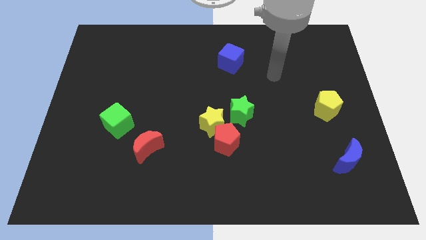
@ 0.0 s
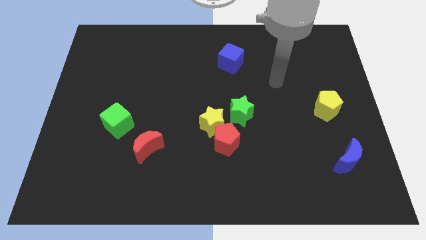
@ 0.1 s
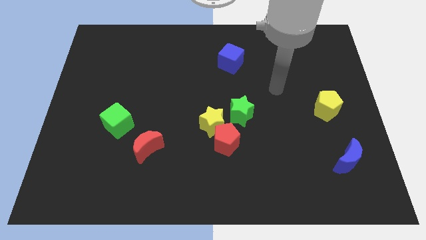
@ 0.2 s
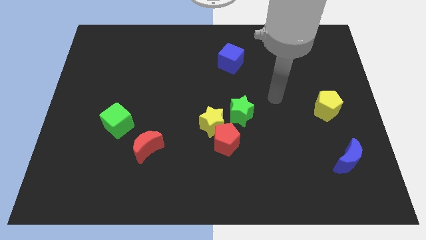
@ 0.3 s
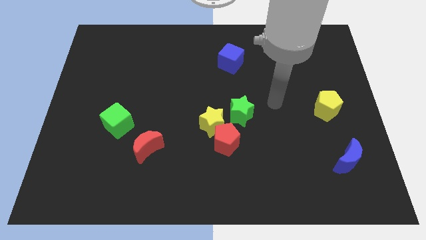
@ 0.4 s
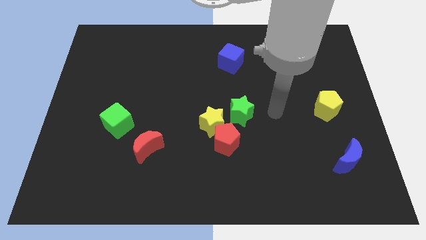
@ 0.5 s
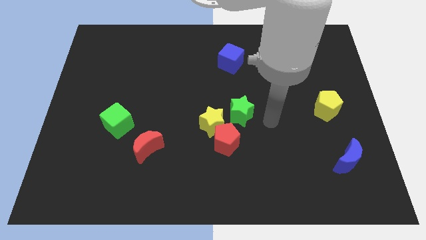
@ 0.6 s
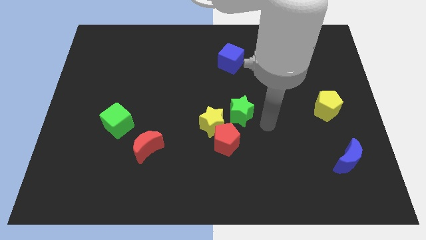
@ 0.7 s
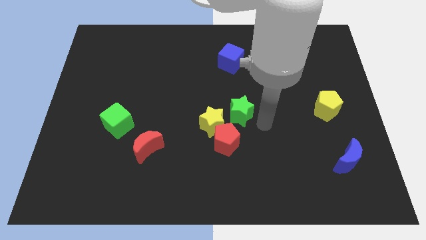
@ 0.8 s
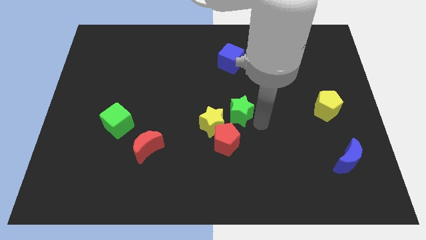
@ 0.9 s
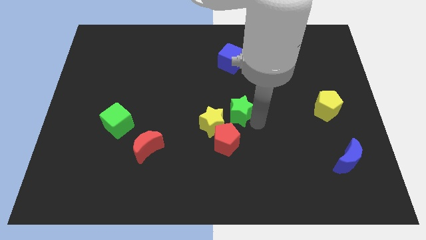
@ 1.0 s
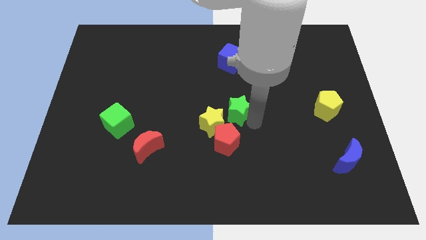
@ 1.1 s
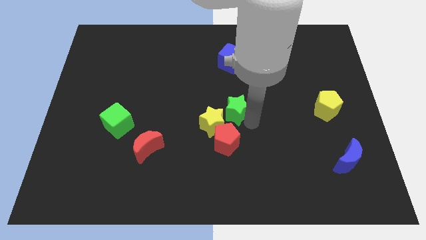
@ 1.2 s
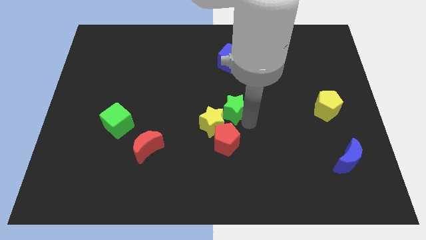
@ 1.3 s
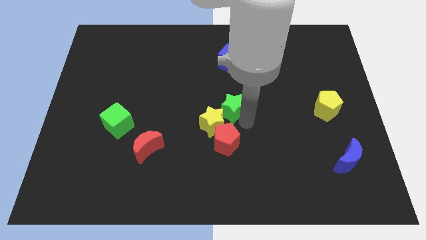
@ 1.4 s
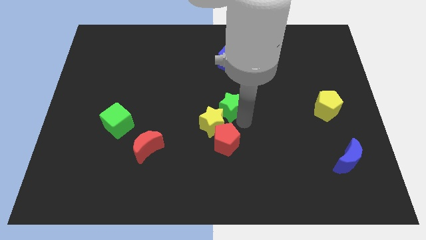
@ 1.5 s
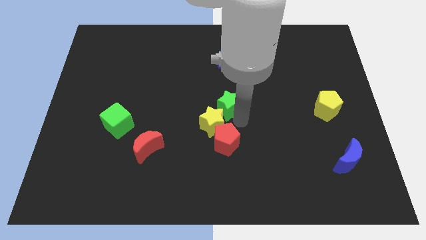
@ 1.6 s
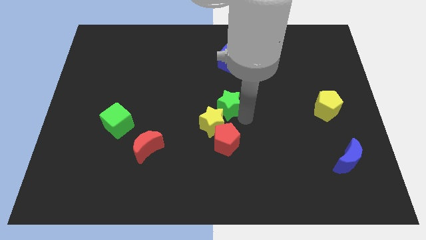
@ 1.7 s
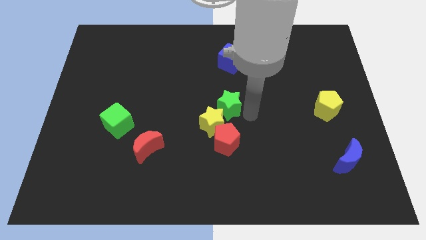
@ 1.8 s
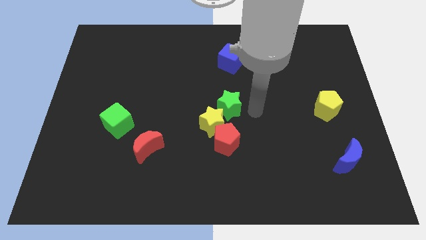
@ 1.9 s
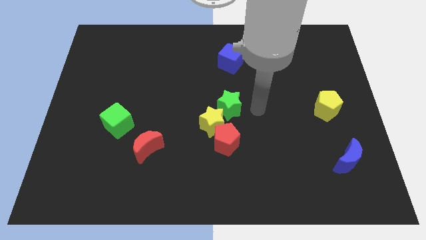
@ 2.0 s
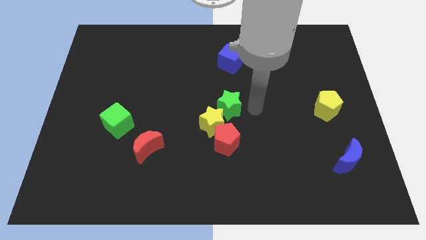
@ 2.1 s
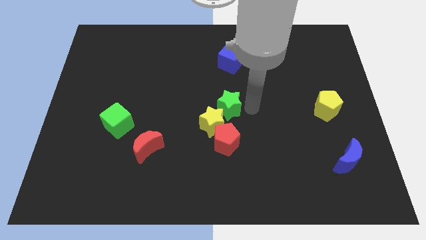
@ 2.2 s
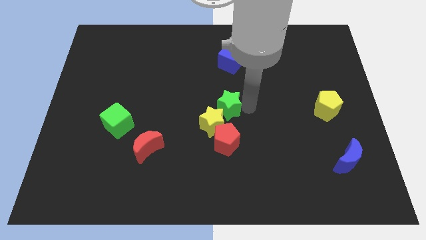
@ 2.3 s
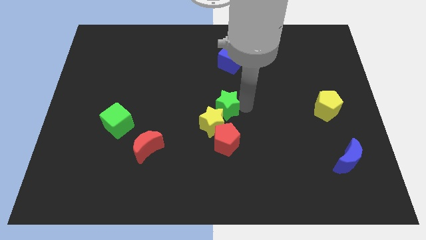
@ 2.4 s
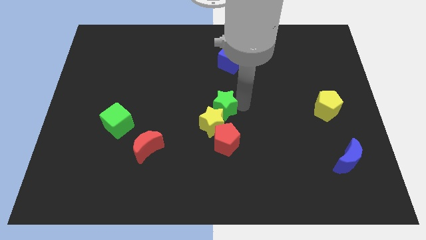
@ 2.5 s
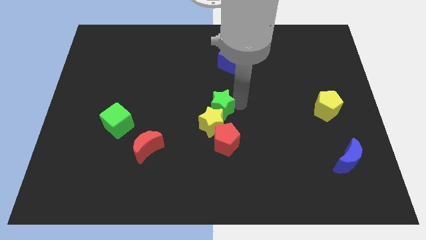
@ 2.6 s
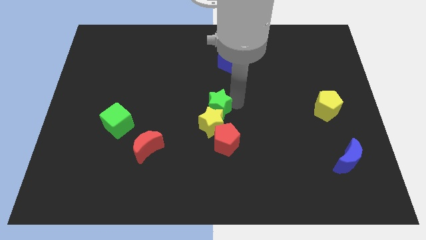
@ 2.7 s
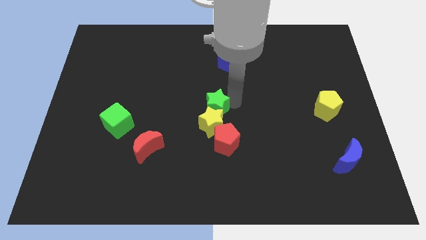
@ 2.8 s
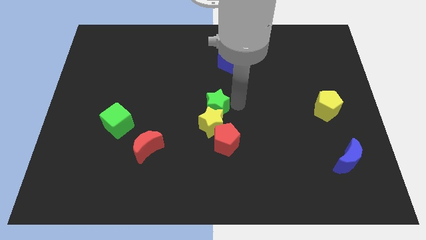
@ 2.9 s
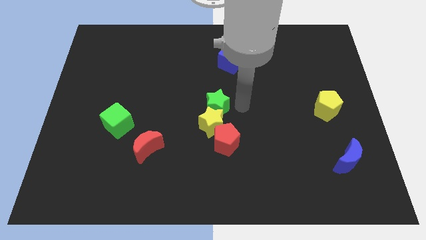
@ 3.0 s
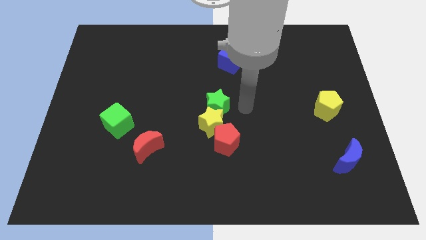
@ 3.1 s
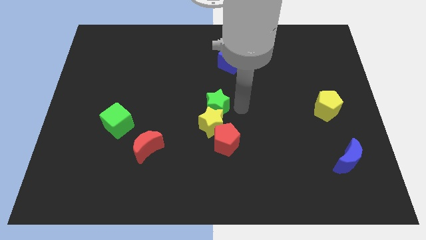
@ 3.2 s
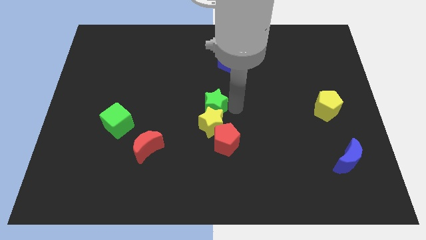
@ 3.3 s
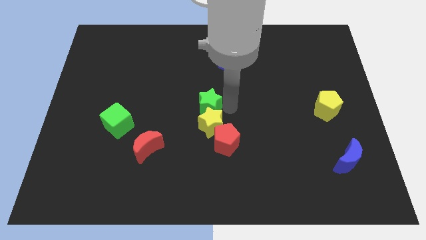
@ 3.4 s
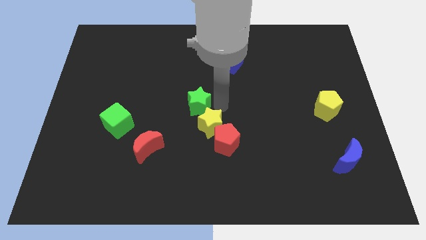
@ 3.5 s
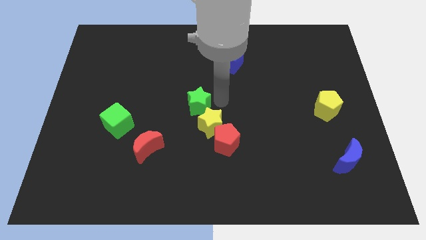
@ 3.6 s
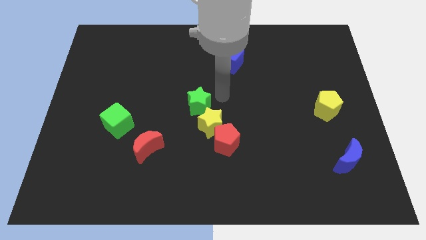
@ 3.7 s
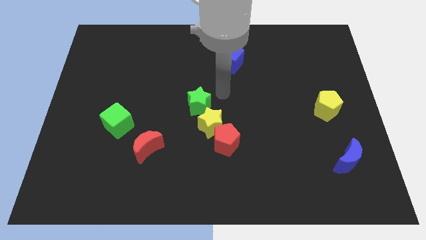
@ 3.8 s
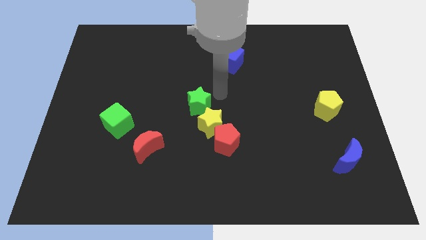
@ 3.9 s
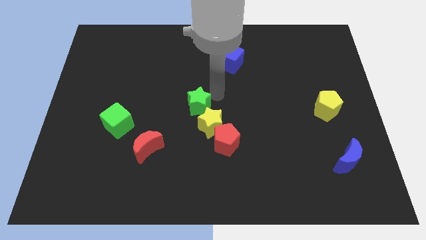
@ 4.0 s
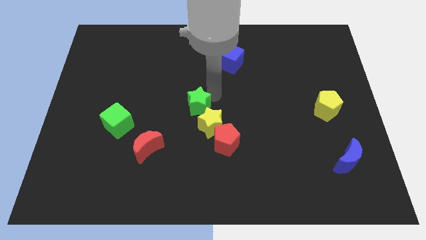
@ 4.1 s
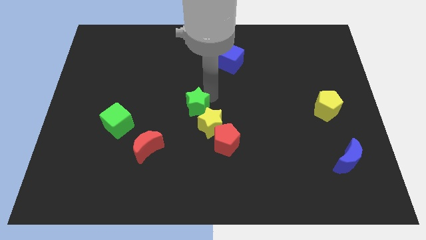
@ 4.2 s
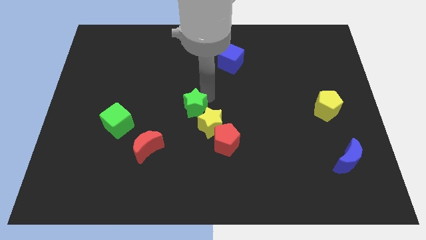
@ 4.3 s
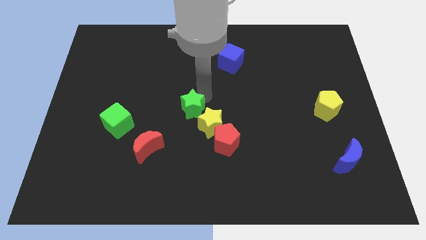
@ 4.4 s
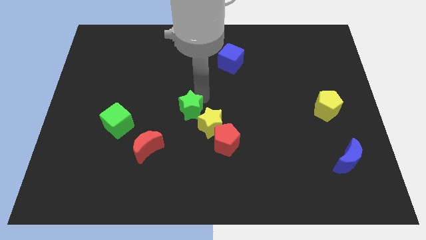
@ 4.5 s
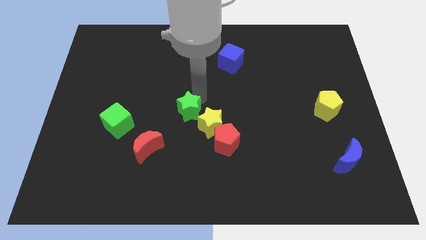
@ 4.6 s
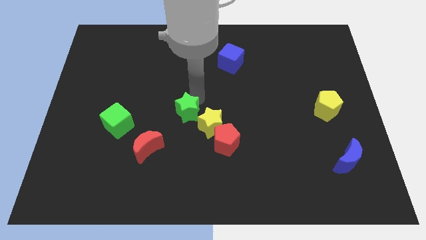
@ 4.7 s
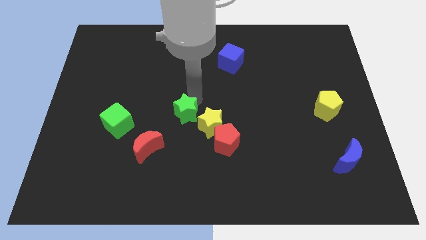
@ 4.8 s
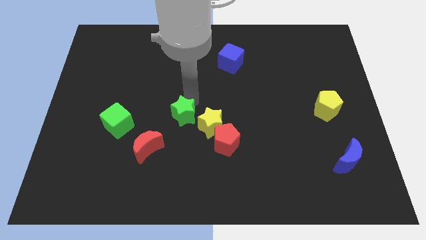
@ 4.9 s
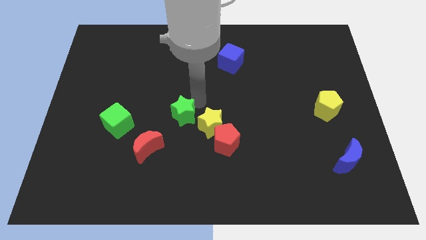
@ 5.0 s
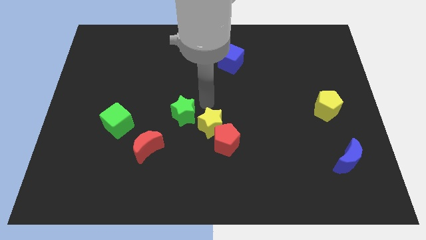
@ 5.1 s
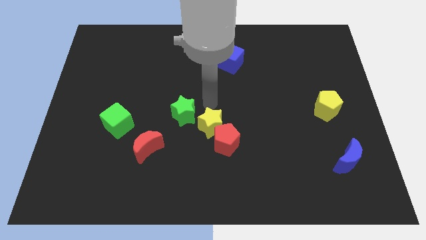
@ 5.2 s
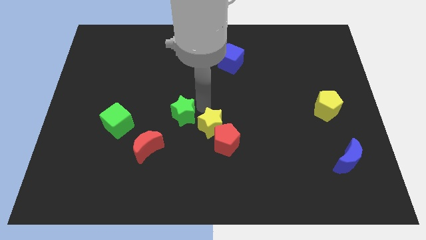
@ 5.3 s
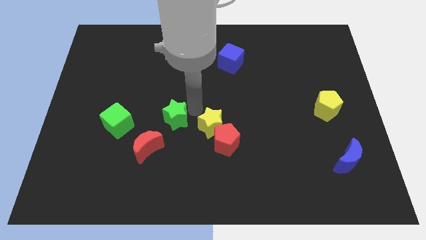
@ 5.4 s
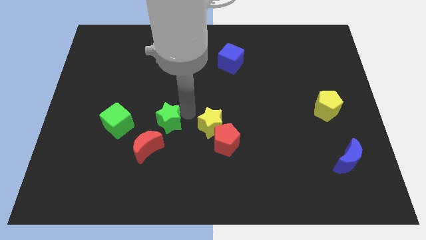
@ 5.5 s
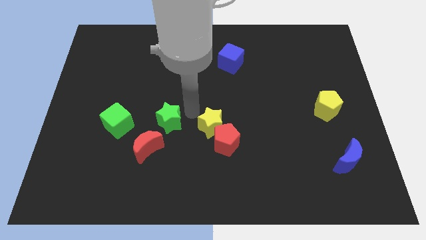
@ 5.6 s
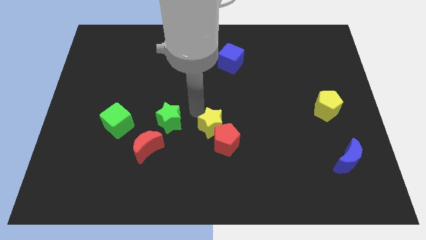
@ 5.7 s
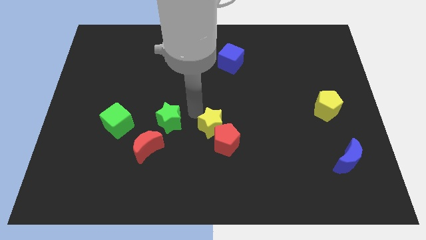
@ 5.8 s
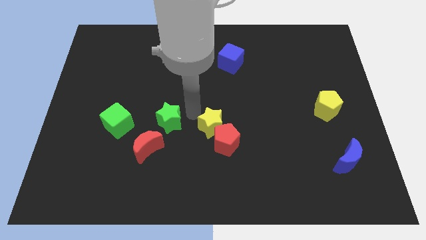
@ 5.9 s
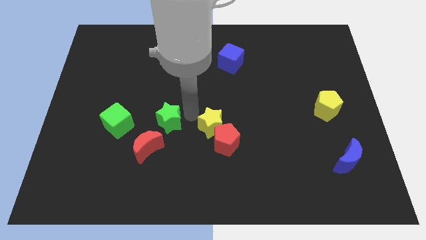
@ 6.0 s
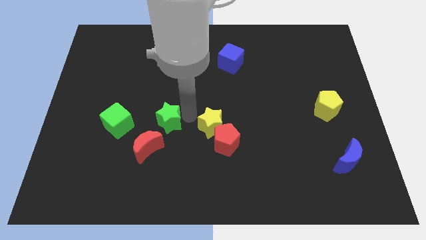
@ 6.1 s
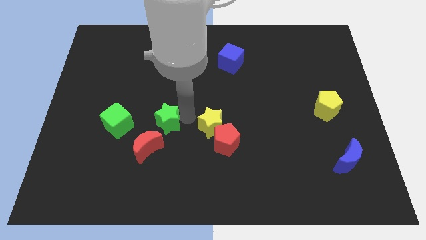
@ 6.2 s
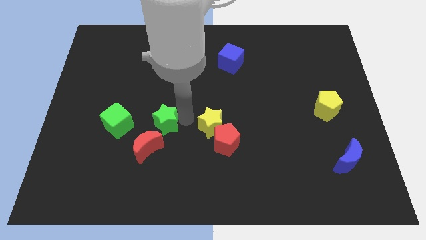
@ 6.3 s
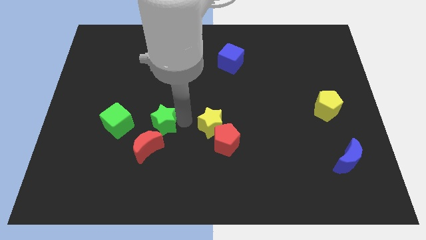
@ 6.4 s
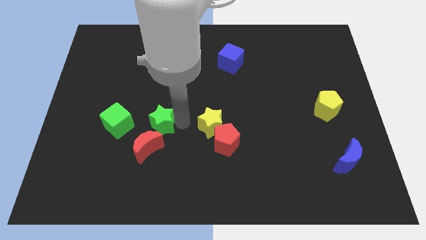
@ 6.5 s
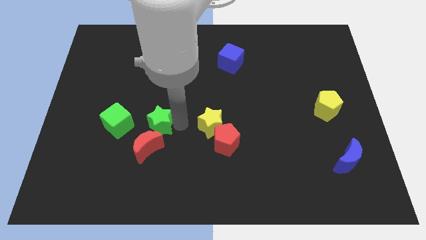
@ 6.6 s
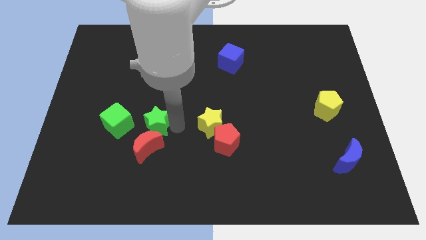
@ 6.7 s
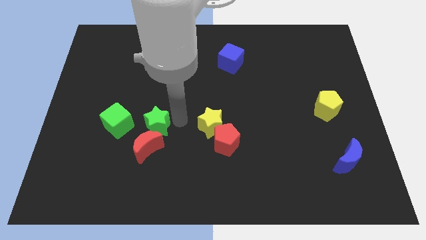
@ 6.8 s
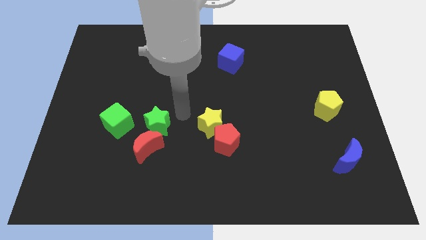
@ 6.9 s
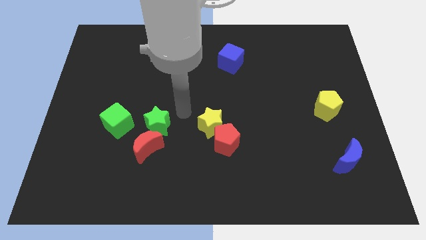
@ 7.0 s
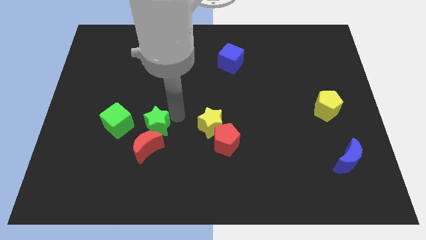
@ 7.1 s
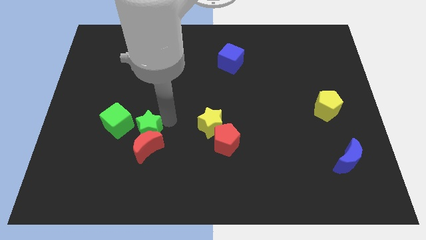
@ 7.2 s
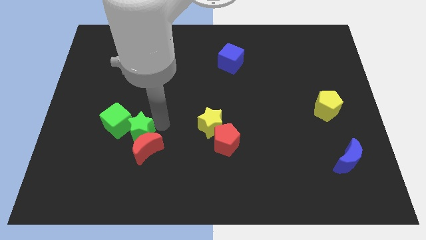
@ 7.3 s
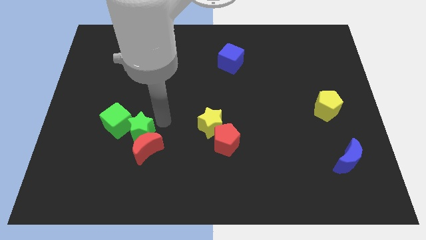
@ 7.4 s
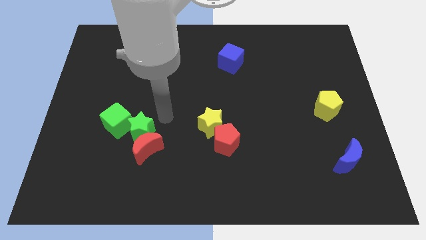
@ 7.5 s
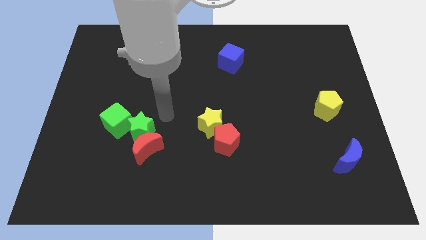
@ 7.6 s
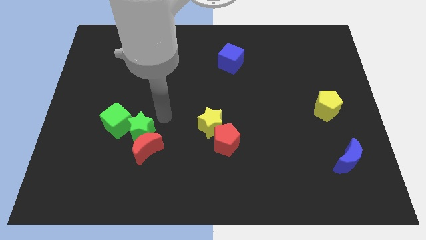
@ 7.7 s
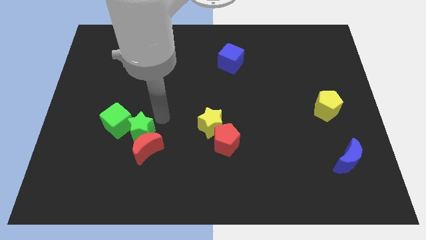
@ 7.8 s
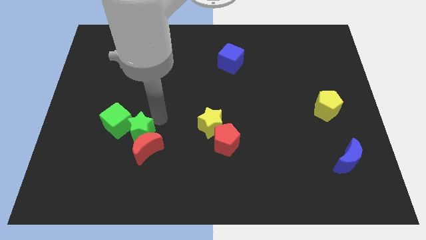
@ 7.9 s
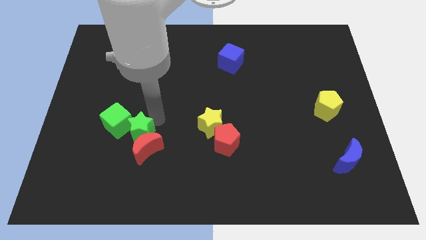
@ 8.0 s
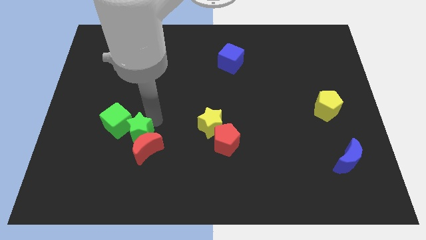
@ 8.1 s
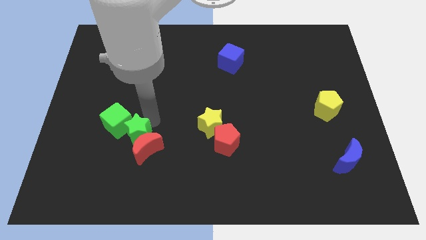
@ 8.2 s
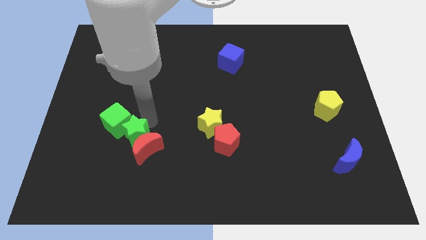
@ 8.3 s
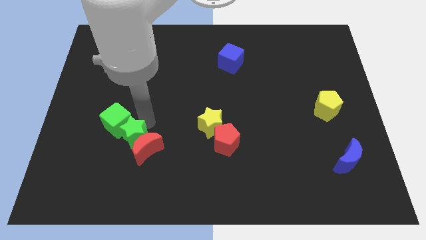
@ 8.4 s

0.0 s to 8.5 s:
move the green star to the bottom of the green cube
